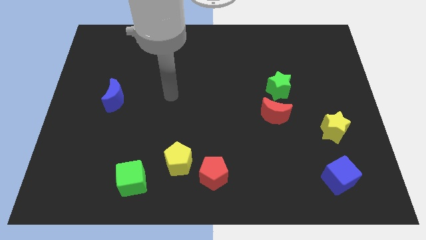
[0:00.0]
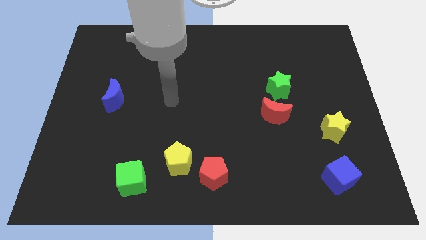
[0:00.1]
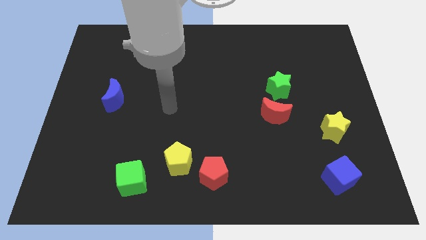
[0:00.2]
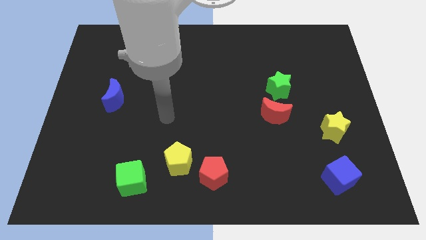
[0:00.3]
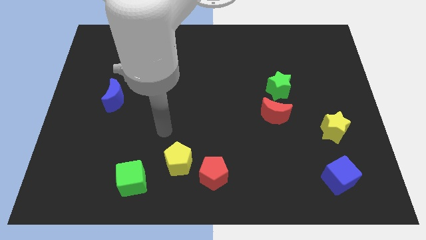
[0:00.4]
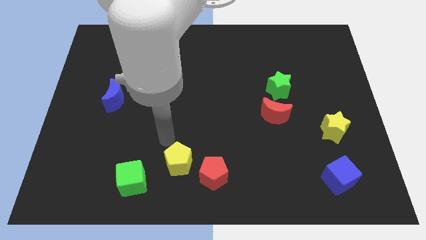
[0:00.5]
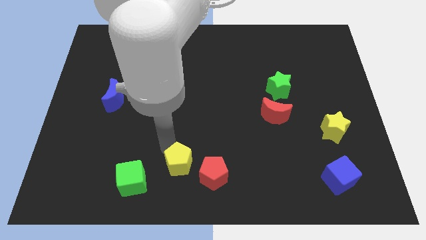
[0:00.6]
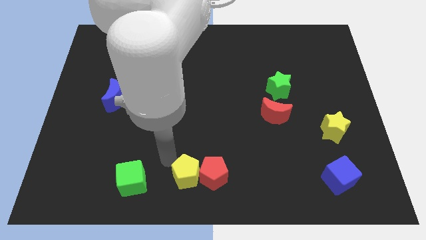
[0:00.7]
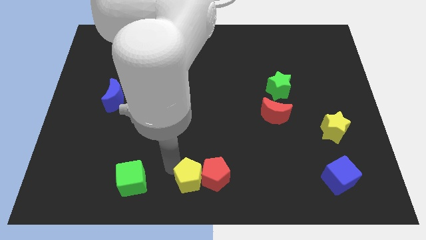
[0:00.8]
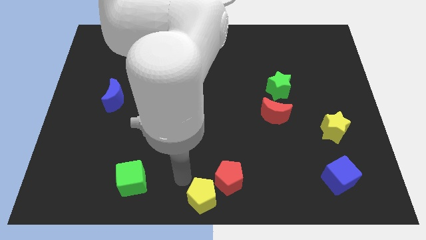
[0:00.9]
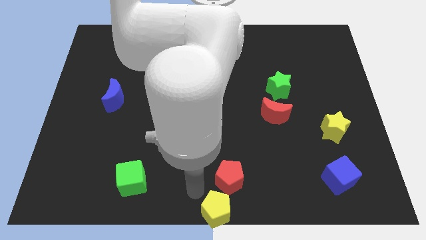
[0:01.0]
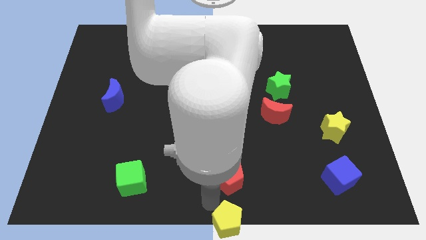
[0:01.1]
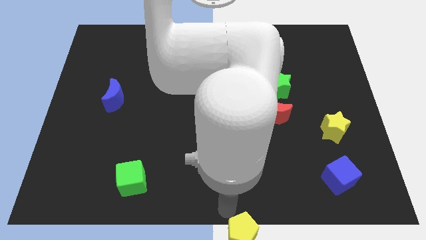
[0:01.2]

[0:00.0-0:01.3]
separate the red pentagon from the yellow pentagon

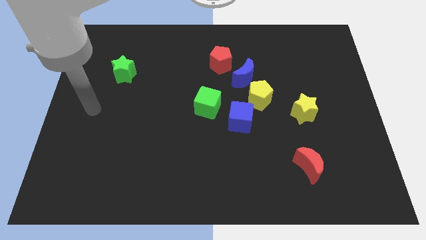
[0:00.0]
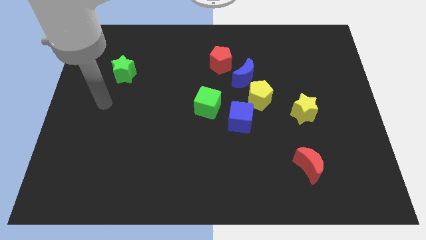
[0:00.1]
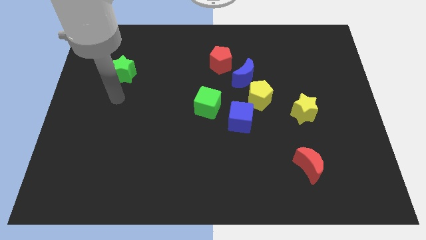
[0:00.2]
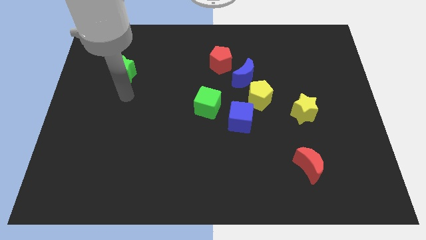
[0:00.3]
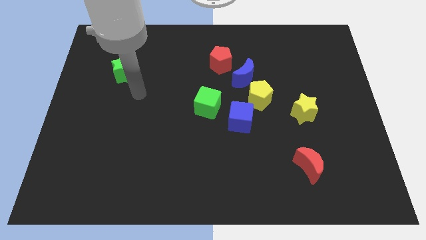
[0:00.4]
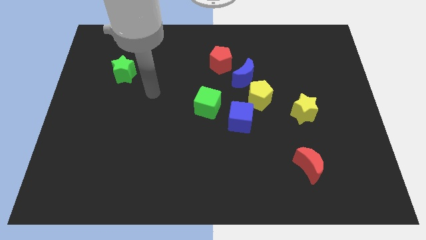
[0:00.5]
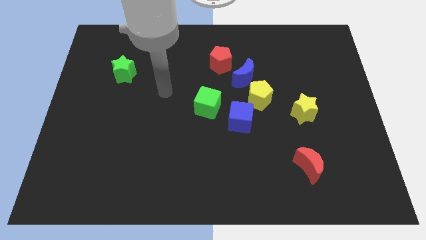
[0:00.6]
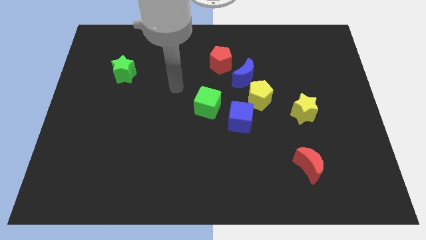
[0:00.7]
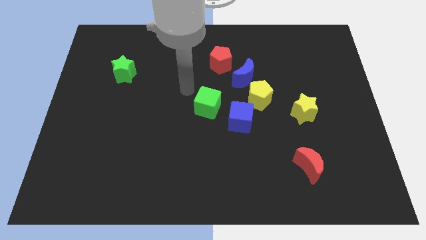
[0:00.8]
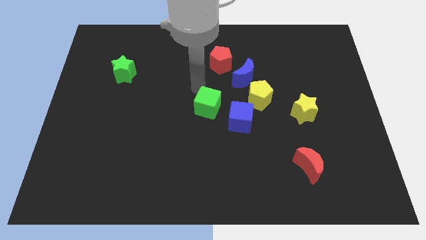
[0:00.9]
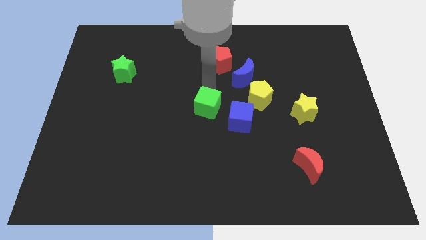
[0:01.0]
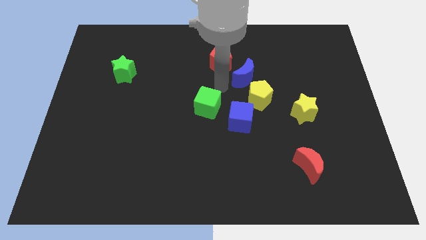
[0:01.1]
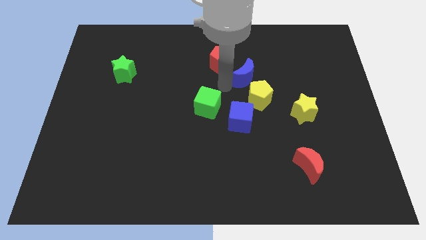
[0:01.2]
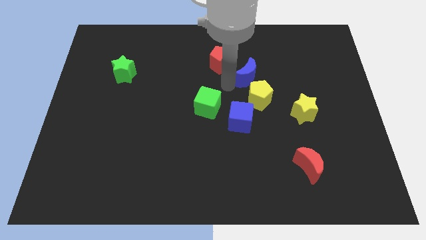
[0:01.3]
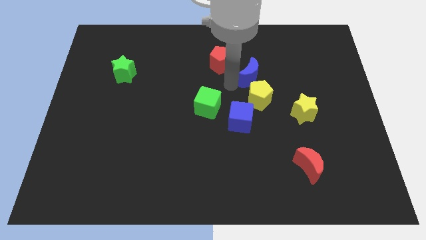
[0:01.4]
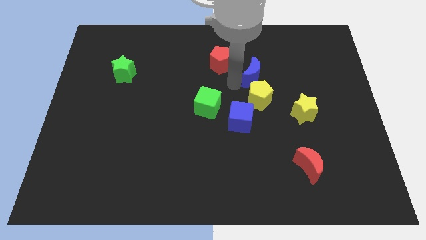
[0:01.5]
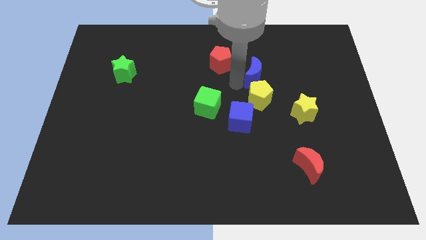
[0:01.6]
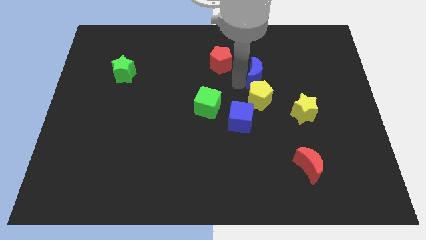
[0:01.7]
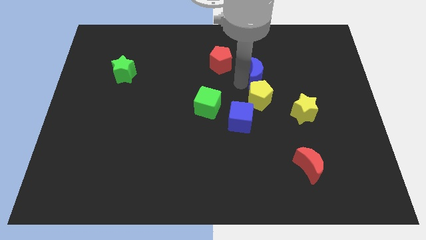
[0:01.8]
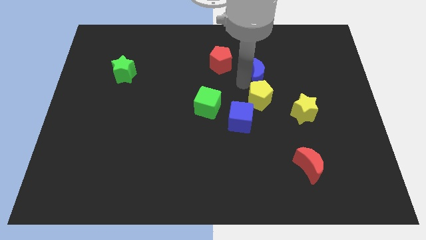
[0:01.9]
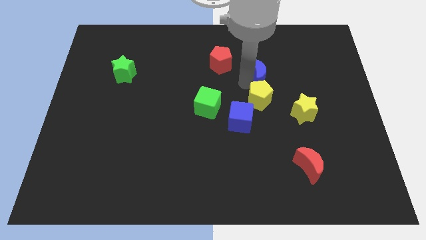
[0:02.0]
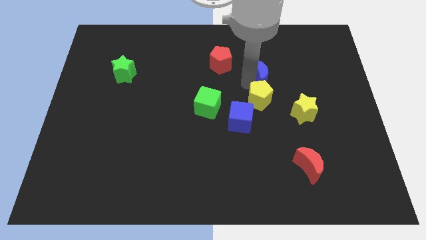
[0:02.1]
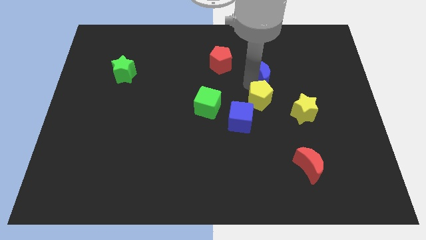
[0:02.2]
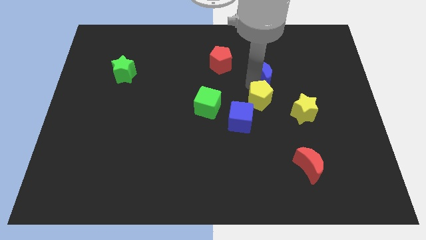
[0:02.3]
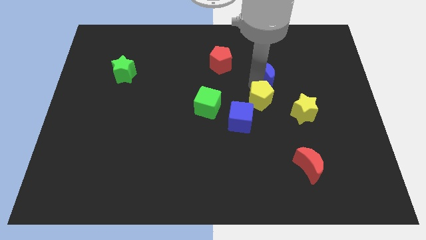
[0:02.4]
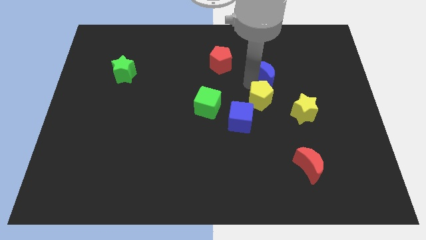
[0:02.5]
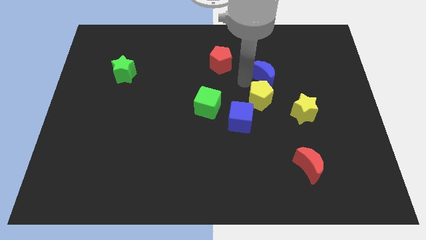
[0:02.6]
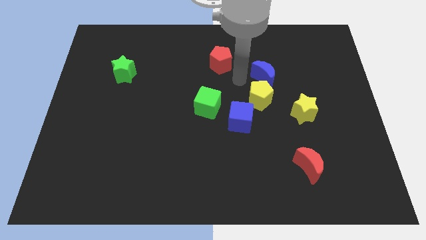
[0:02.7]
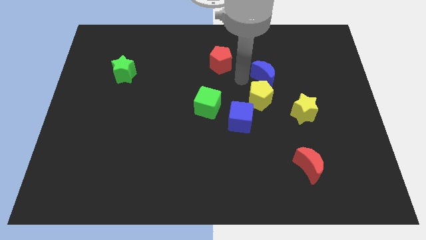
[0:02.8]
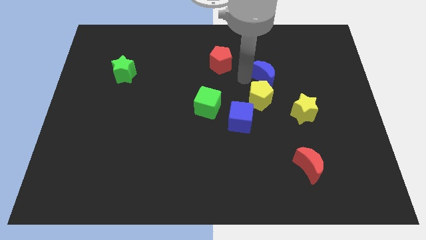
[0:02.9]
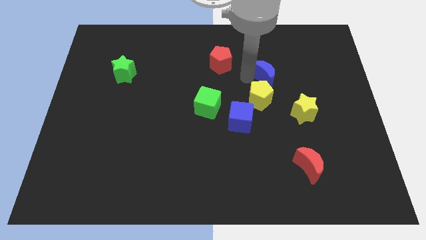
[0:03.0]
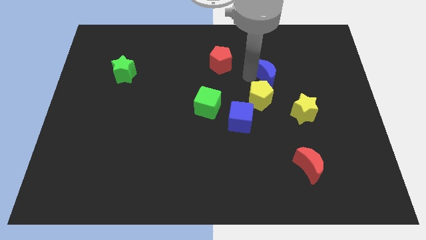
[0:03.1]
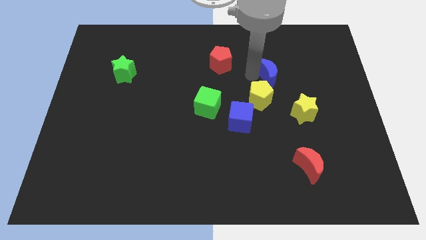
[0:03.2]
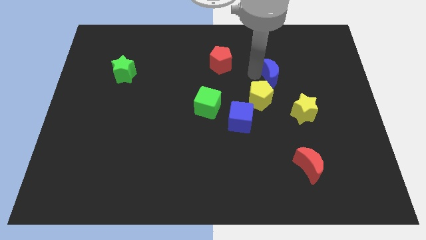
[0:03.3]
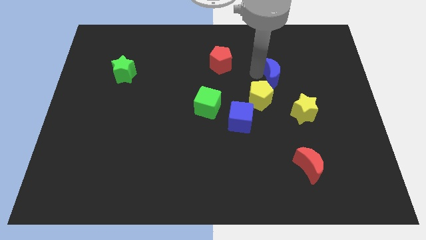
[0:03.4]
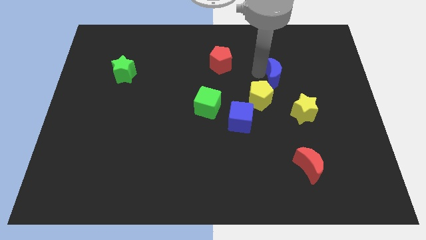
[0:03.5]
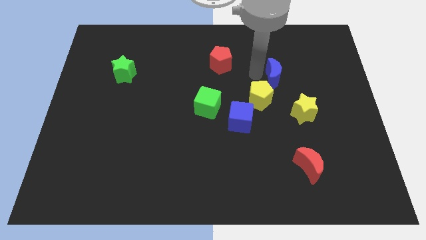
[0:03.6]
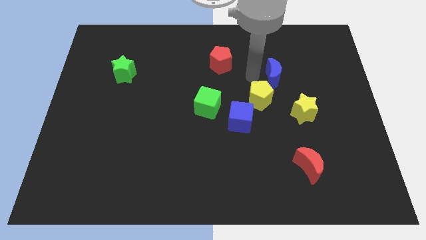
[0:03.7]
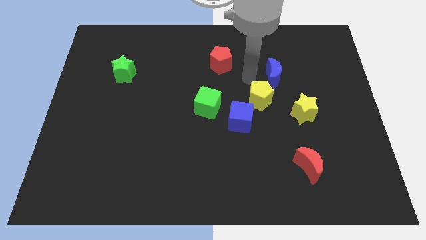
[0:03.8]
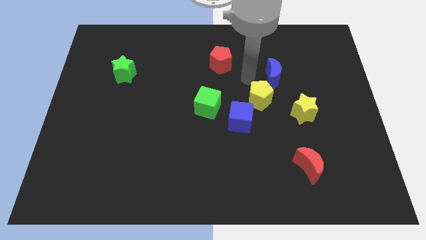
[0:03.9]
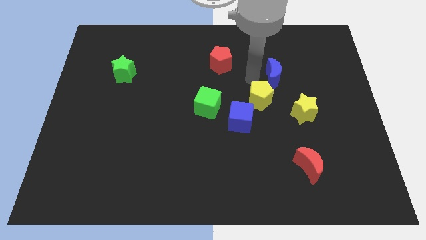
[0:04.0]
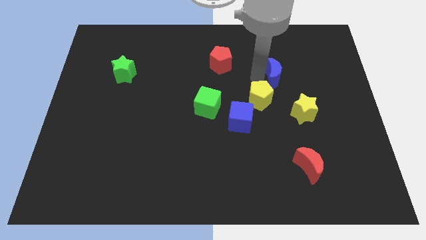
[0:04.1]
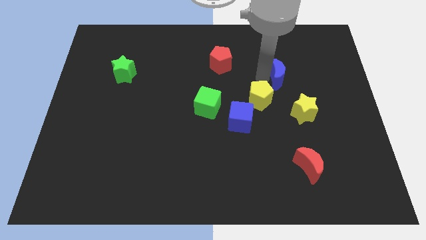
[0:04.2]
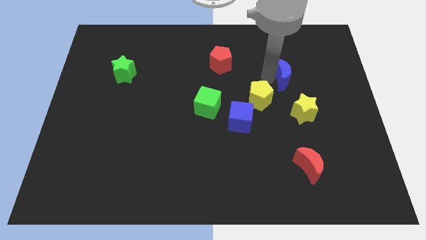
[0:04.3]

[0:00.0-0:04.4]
separate the blue moon from the yellow pentagon and red pentagon

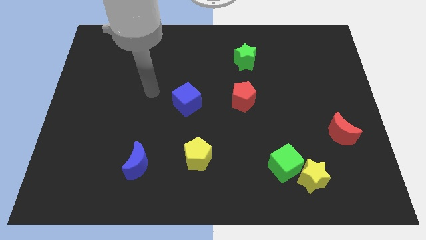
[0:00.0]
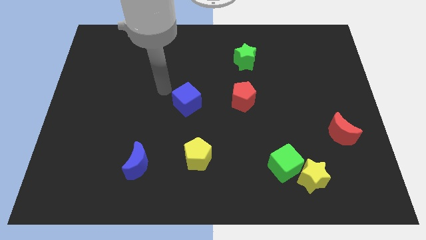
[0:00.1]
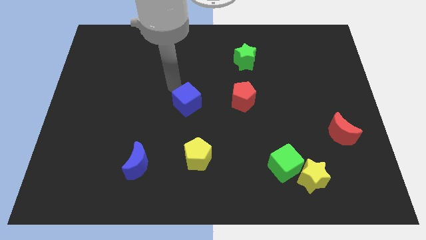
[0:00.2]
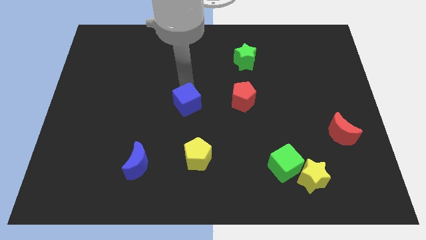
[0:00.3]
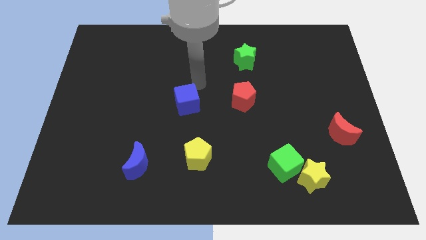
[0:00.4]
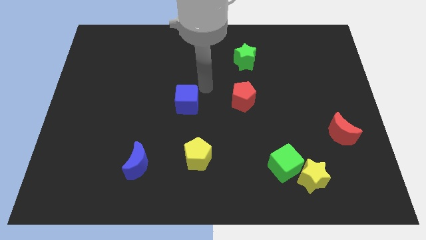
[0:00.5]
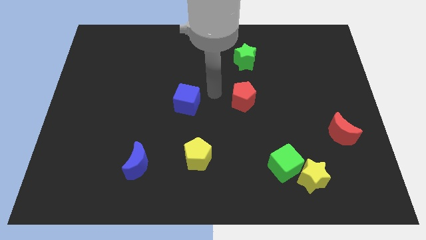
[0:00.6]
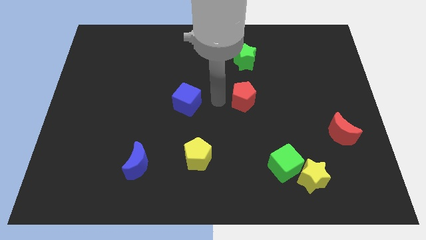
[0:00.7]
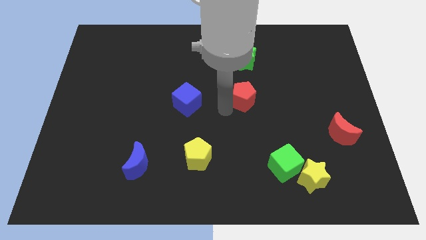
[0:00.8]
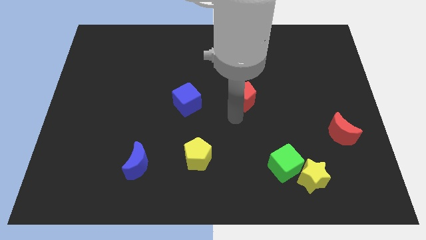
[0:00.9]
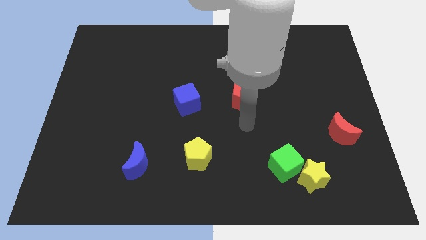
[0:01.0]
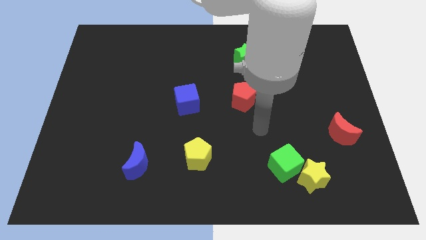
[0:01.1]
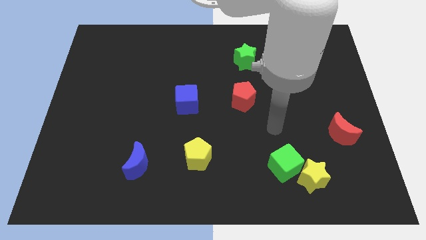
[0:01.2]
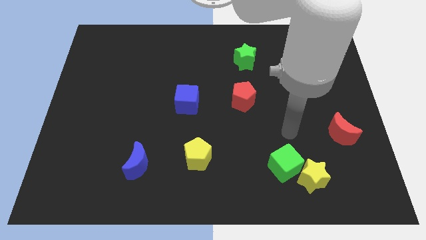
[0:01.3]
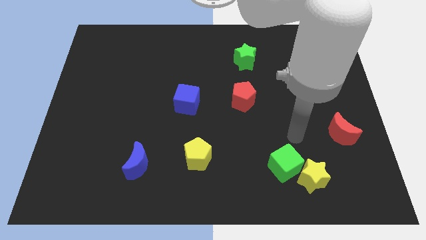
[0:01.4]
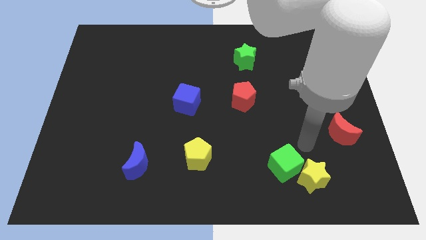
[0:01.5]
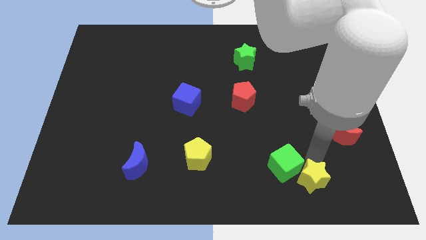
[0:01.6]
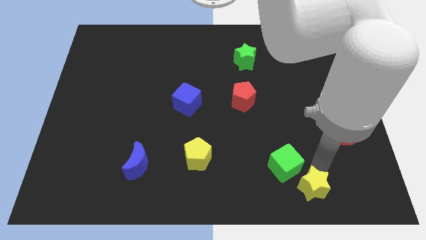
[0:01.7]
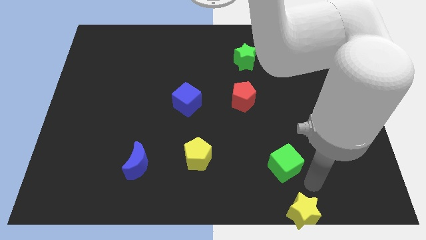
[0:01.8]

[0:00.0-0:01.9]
move the green cube away from the yellow star

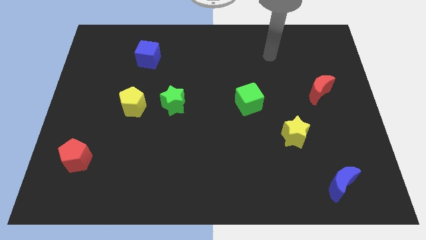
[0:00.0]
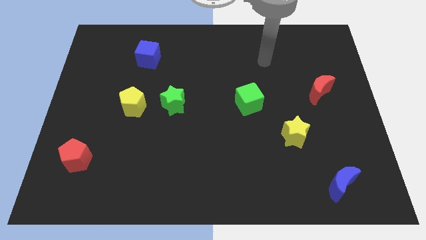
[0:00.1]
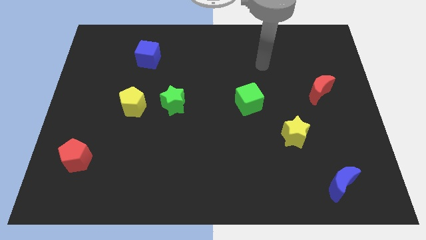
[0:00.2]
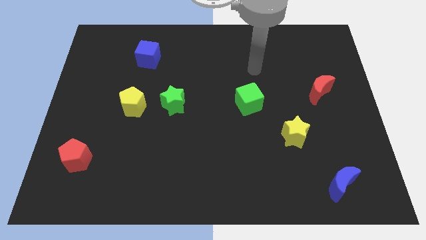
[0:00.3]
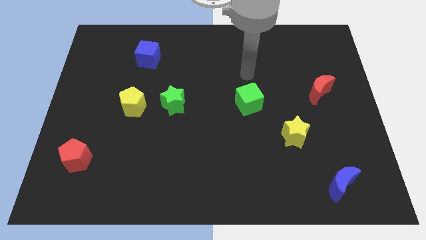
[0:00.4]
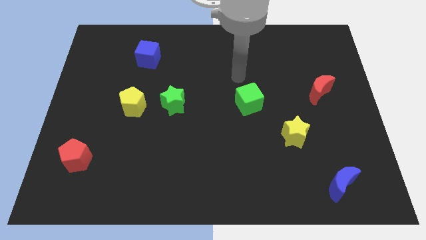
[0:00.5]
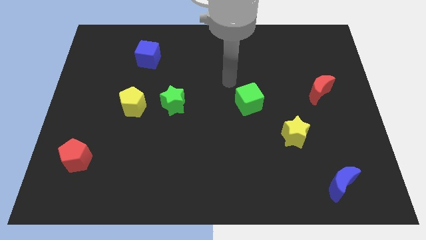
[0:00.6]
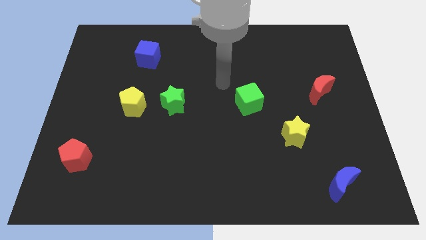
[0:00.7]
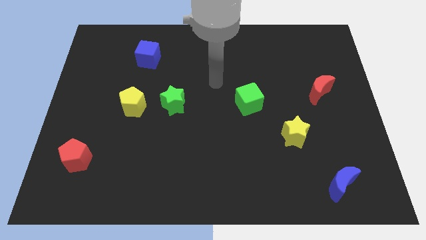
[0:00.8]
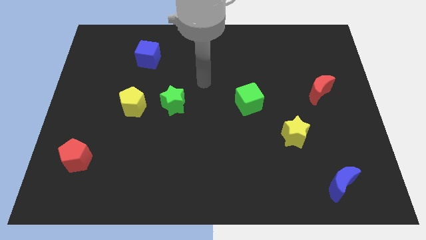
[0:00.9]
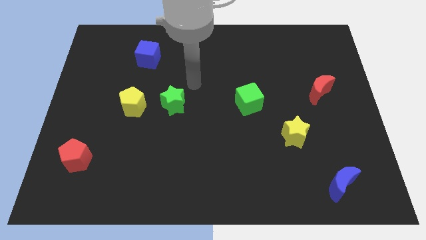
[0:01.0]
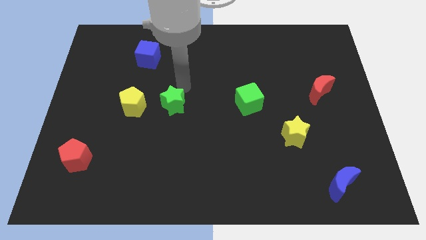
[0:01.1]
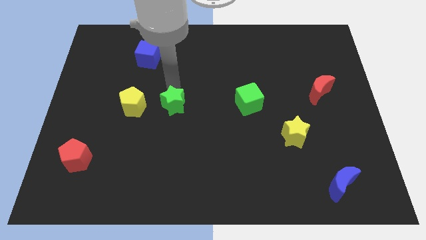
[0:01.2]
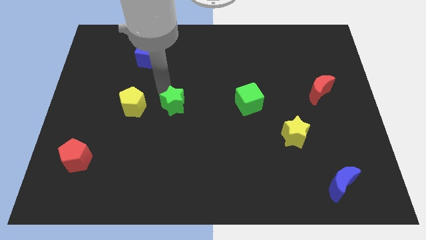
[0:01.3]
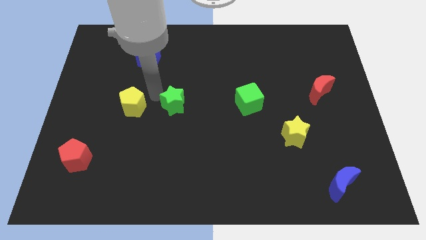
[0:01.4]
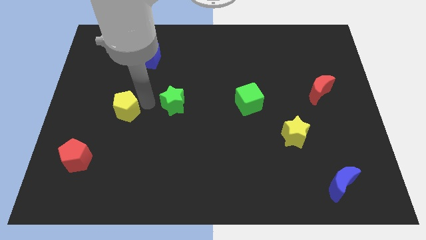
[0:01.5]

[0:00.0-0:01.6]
separate the green star from the yellow pentagon

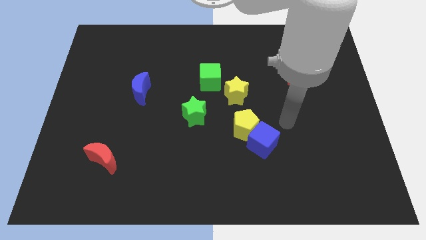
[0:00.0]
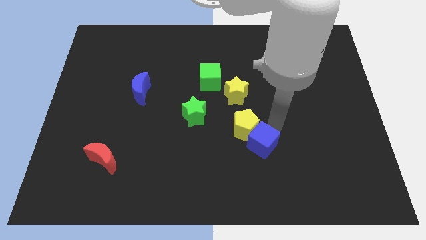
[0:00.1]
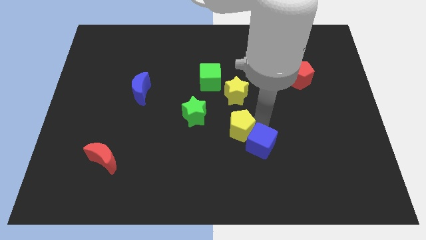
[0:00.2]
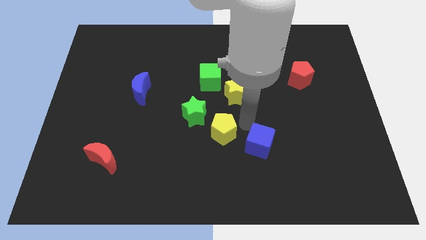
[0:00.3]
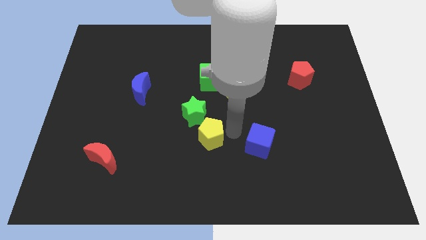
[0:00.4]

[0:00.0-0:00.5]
move the blue cube away from the yellow pentagon
